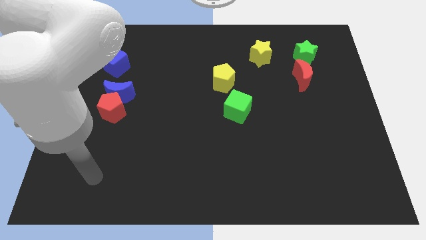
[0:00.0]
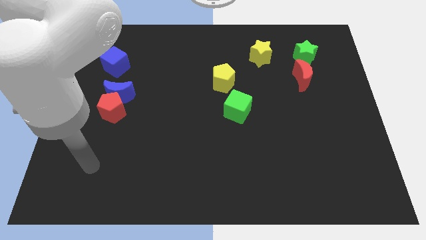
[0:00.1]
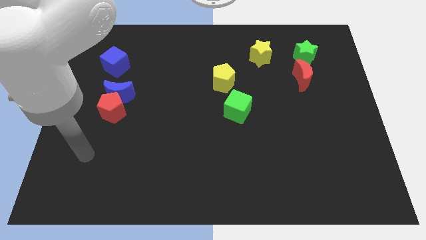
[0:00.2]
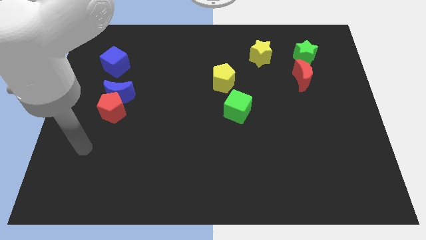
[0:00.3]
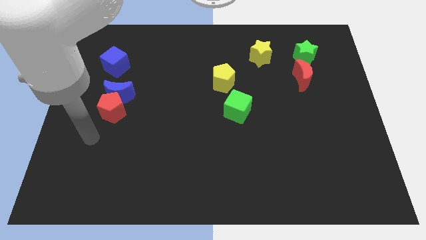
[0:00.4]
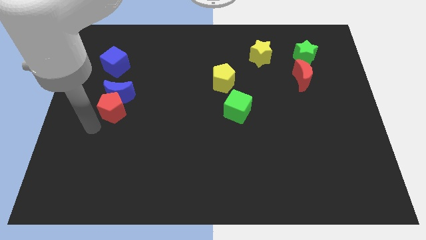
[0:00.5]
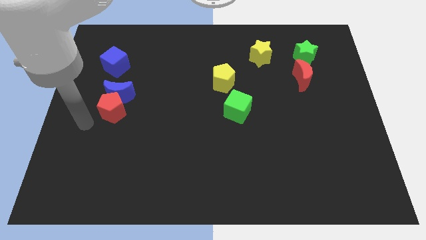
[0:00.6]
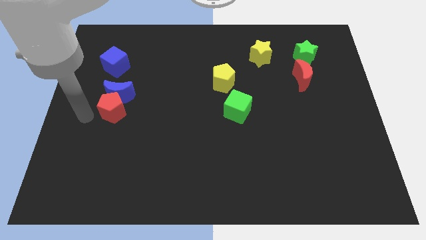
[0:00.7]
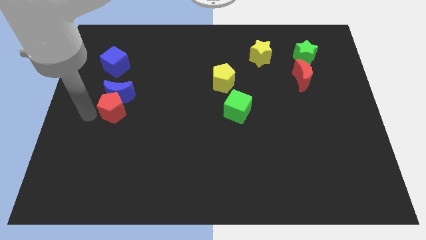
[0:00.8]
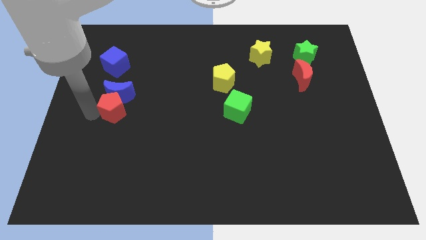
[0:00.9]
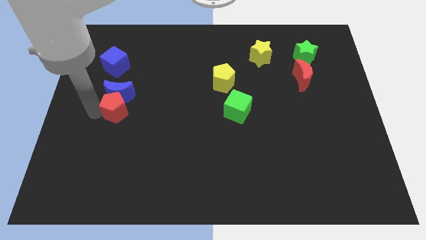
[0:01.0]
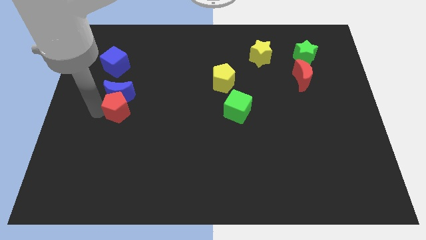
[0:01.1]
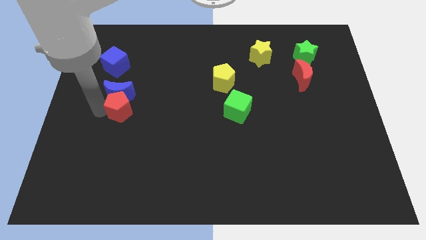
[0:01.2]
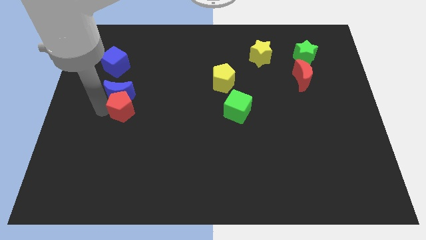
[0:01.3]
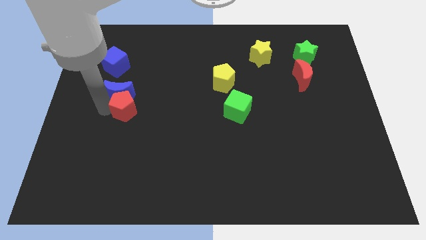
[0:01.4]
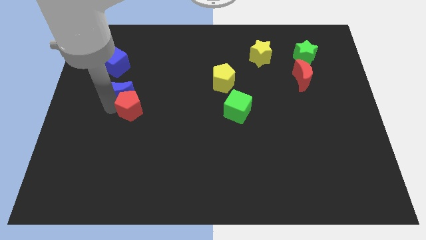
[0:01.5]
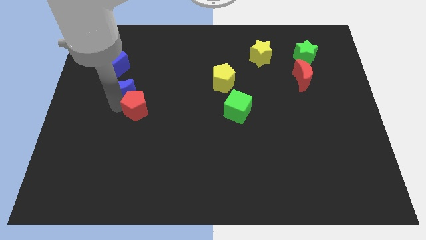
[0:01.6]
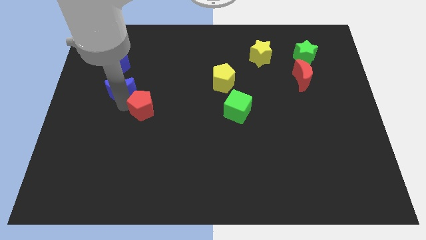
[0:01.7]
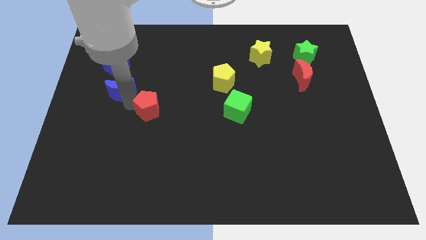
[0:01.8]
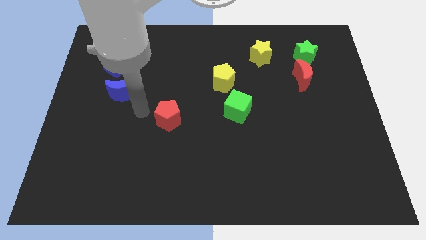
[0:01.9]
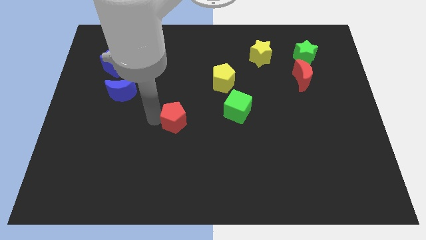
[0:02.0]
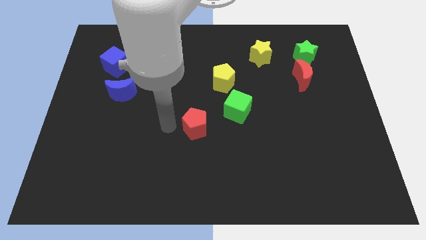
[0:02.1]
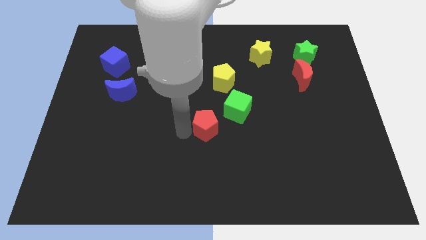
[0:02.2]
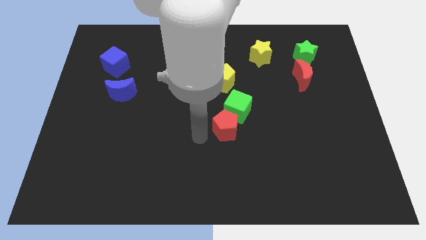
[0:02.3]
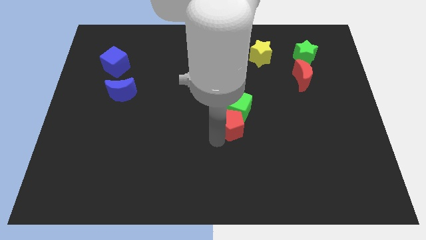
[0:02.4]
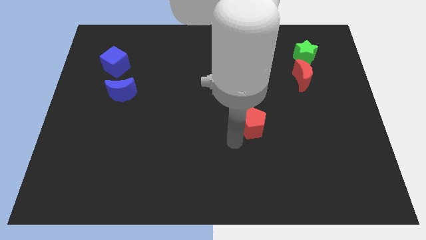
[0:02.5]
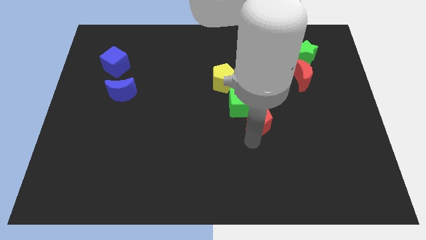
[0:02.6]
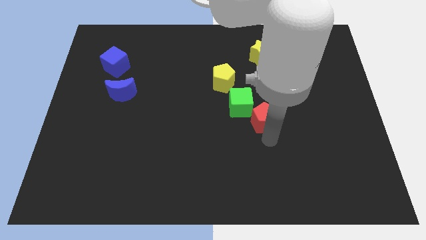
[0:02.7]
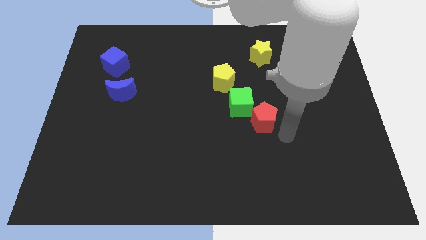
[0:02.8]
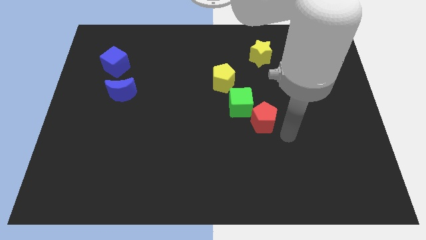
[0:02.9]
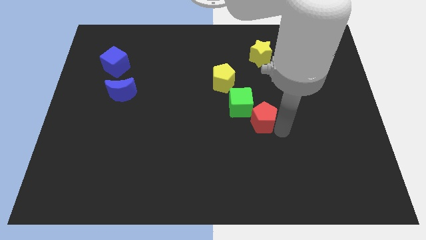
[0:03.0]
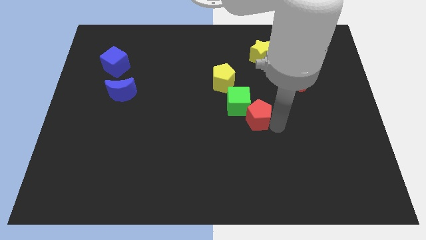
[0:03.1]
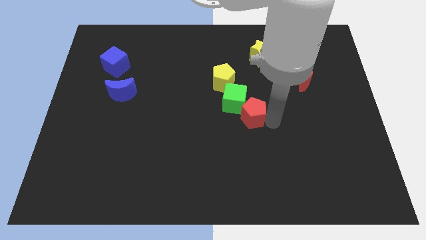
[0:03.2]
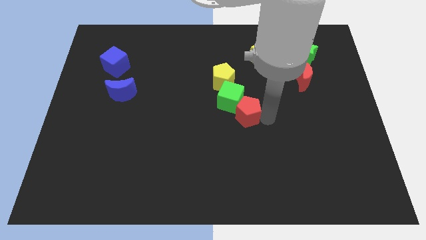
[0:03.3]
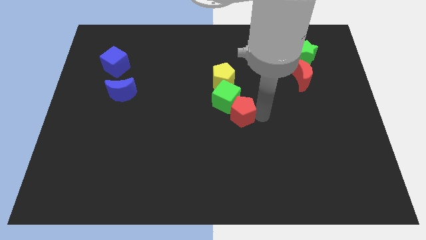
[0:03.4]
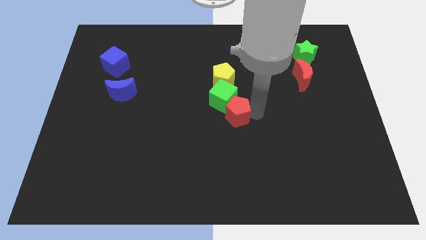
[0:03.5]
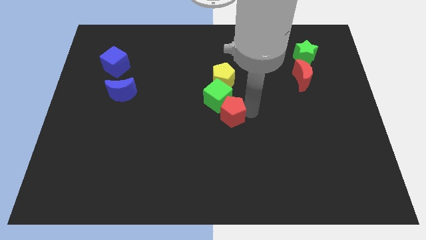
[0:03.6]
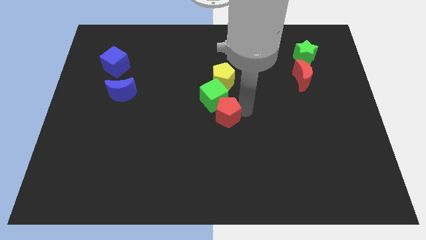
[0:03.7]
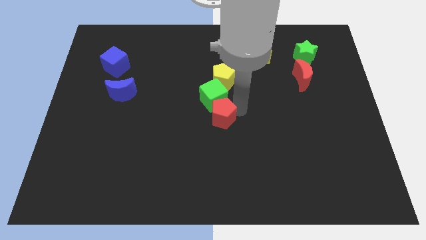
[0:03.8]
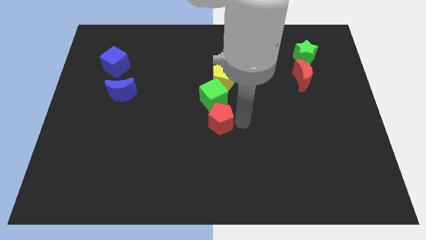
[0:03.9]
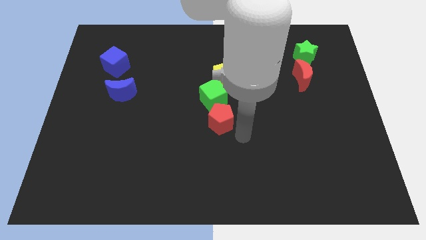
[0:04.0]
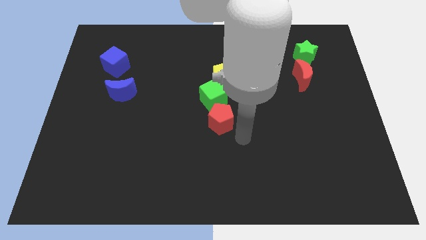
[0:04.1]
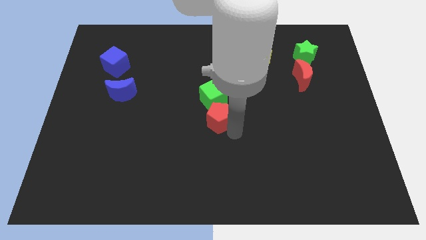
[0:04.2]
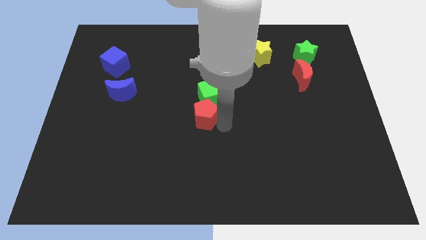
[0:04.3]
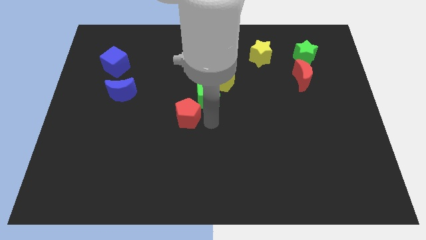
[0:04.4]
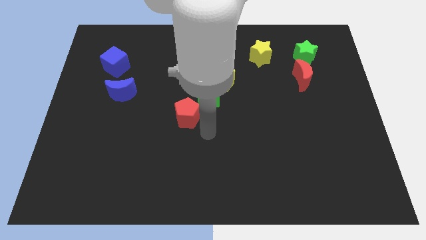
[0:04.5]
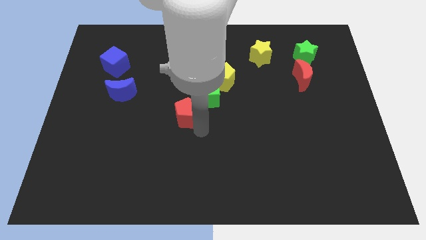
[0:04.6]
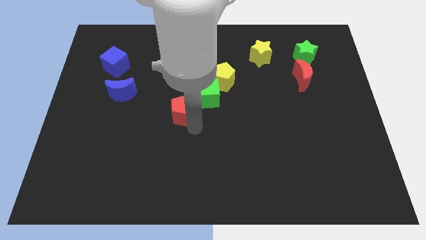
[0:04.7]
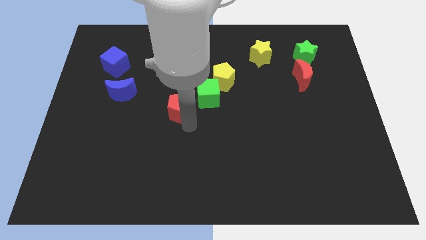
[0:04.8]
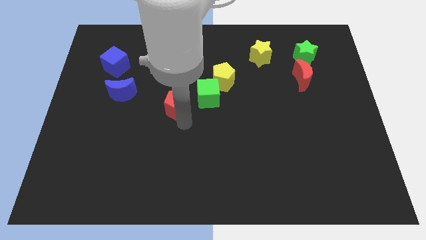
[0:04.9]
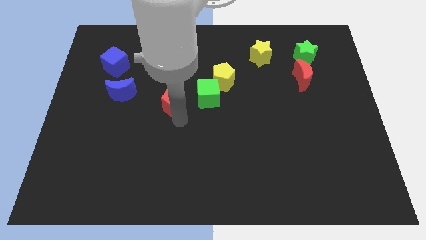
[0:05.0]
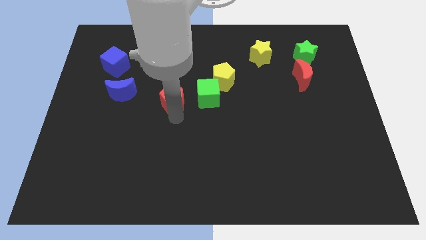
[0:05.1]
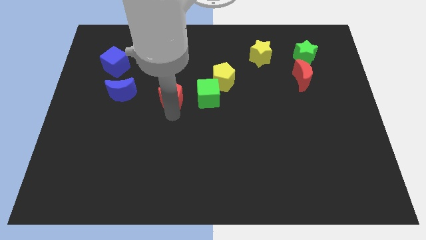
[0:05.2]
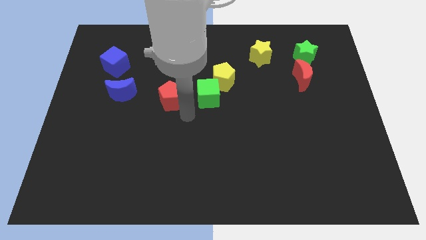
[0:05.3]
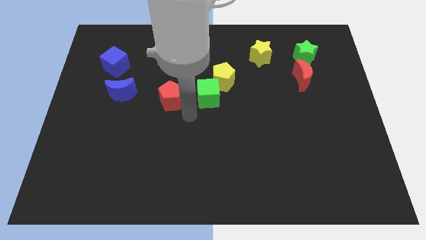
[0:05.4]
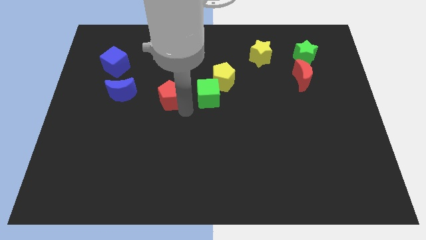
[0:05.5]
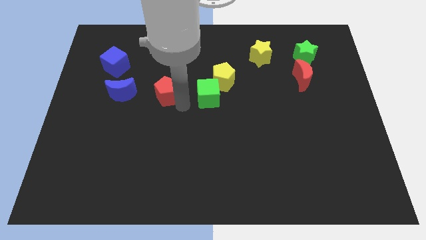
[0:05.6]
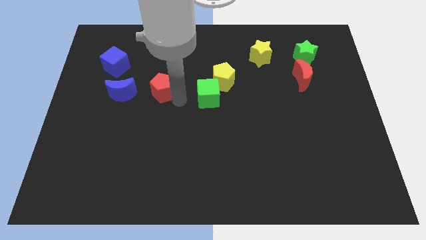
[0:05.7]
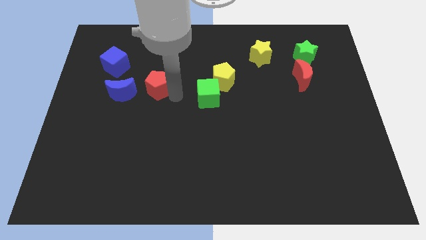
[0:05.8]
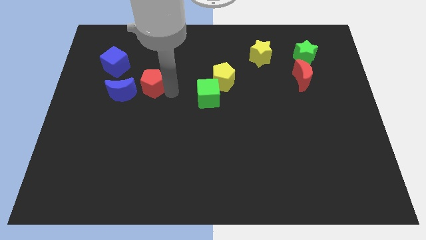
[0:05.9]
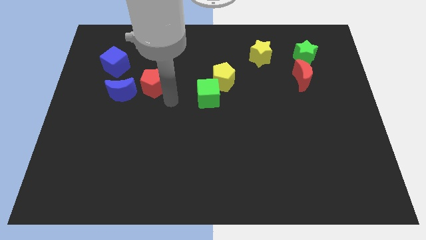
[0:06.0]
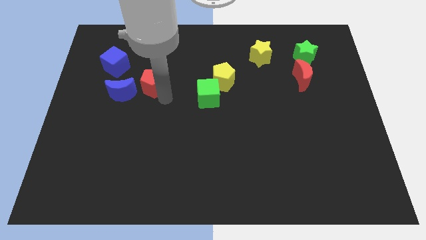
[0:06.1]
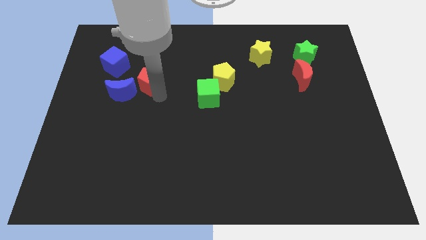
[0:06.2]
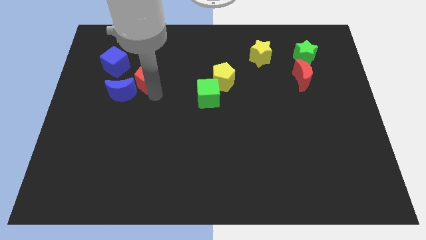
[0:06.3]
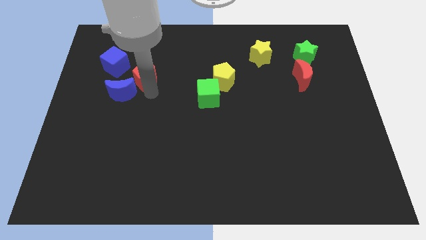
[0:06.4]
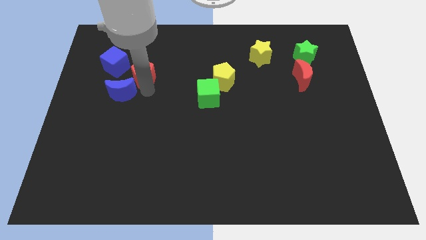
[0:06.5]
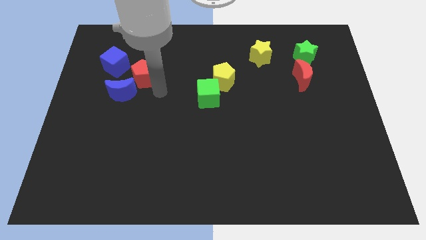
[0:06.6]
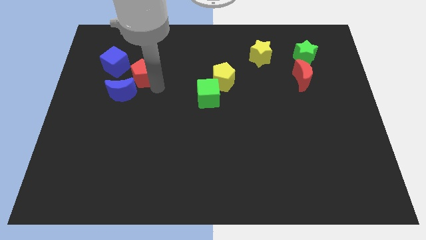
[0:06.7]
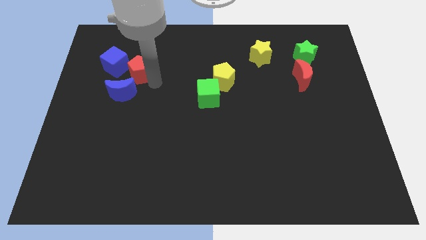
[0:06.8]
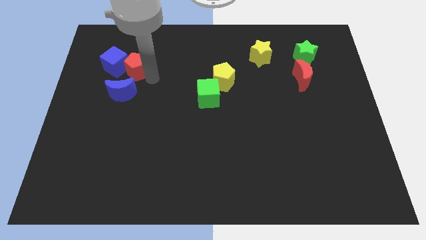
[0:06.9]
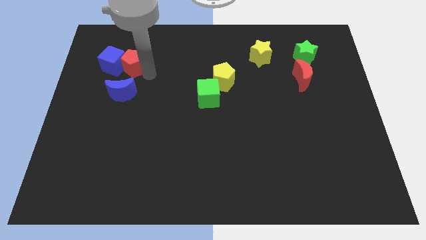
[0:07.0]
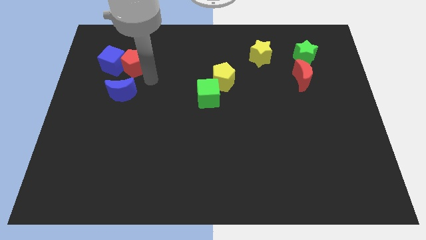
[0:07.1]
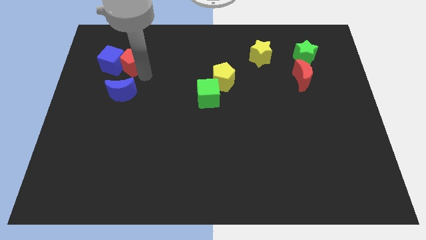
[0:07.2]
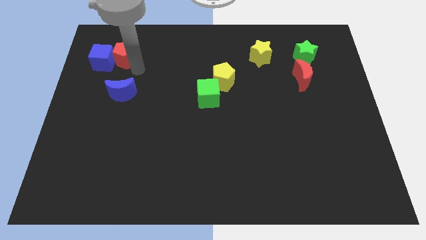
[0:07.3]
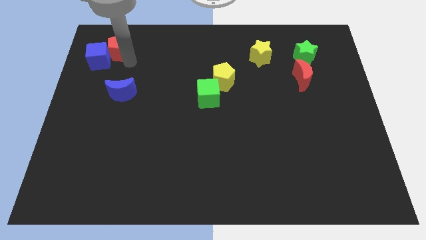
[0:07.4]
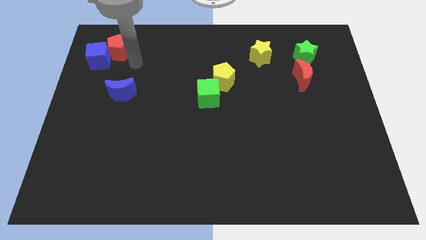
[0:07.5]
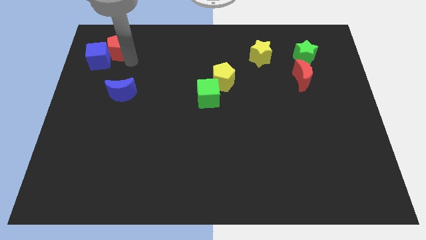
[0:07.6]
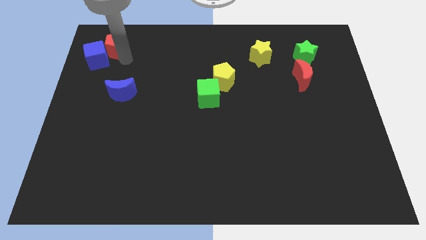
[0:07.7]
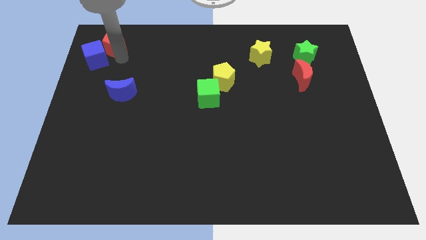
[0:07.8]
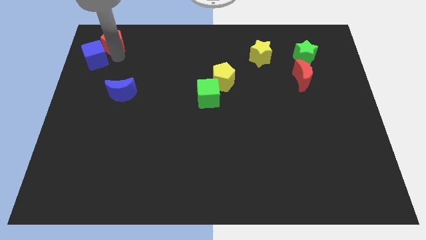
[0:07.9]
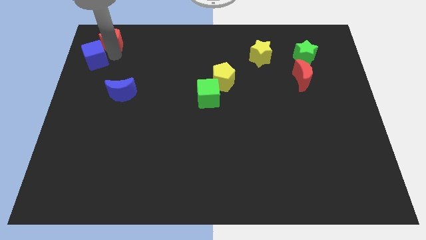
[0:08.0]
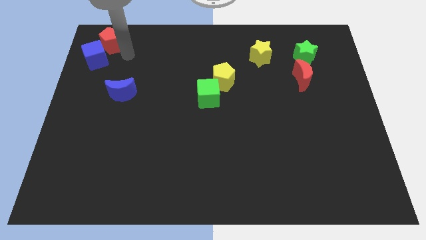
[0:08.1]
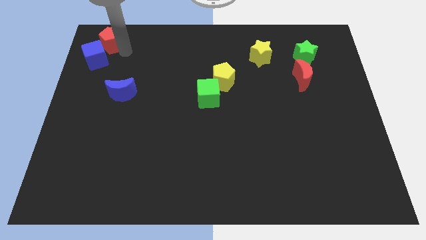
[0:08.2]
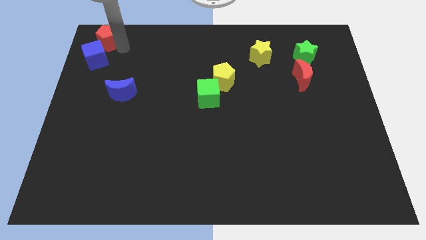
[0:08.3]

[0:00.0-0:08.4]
push the red pentagon to the top left
